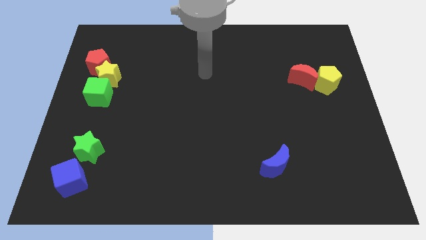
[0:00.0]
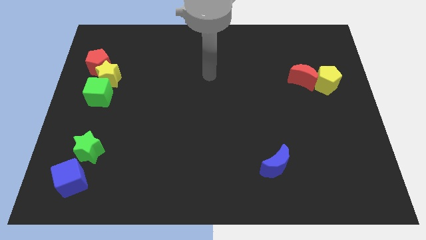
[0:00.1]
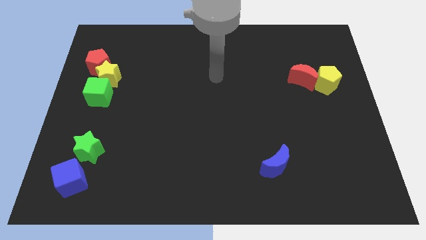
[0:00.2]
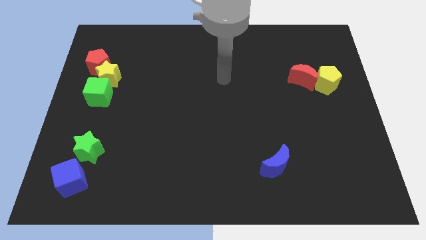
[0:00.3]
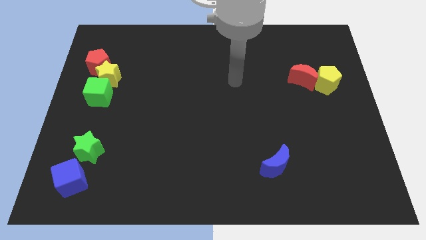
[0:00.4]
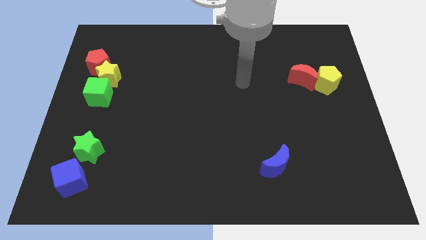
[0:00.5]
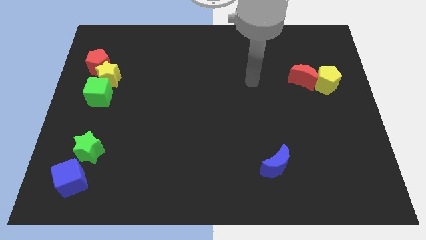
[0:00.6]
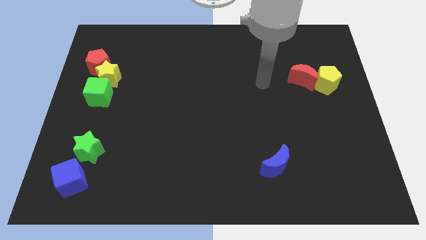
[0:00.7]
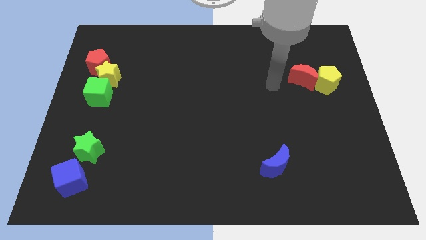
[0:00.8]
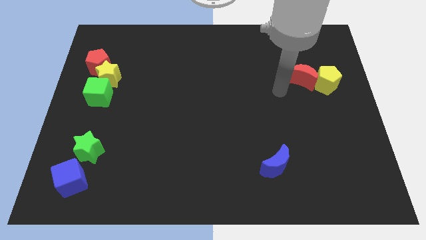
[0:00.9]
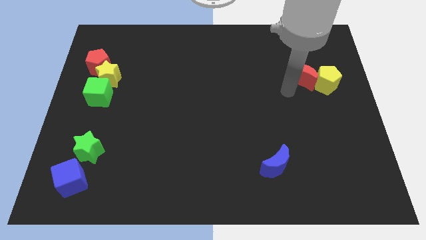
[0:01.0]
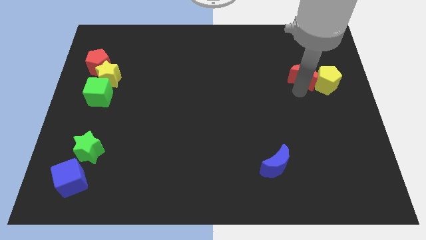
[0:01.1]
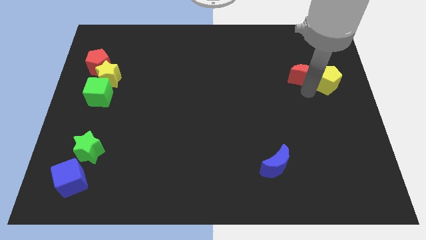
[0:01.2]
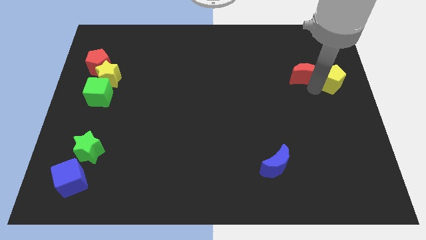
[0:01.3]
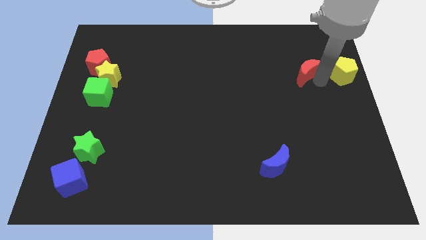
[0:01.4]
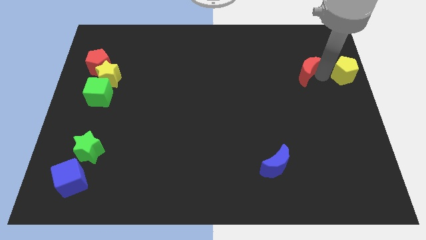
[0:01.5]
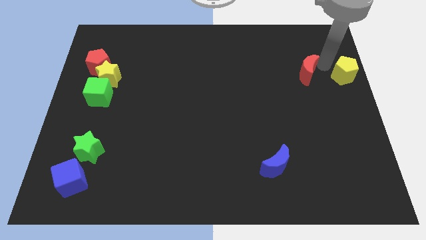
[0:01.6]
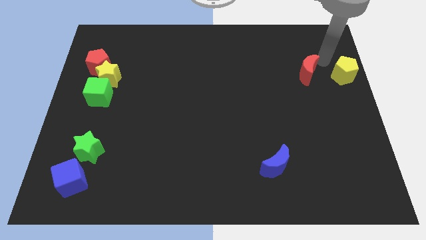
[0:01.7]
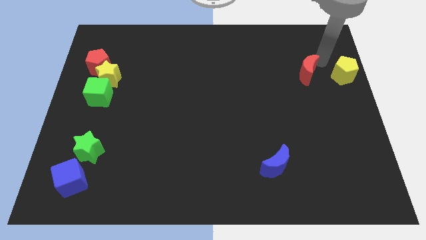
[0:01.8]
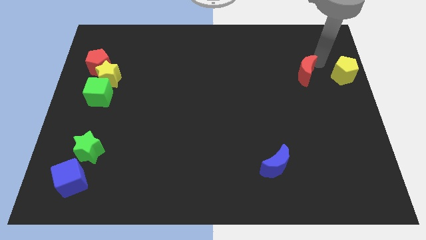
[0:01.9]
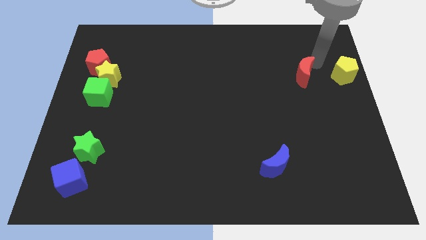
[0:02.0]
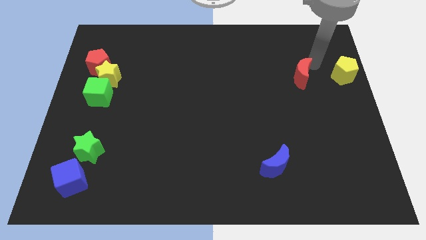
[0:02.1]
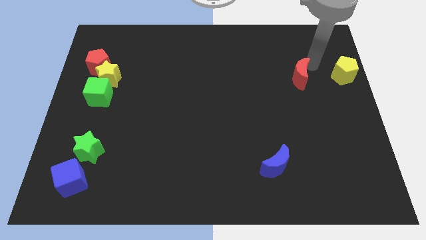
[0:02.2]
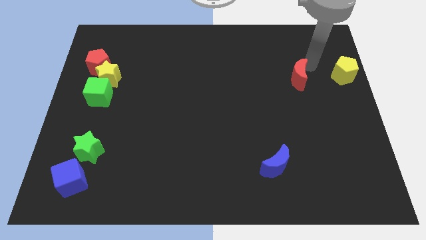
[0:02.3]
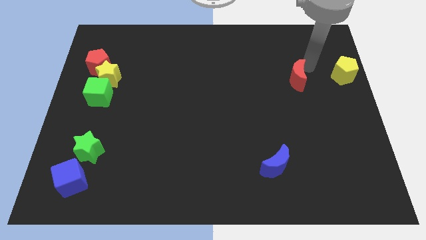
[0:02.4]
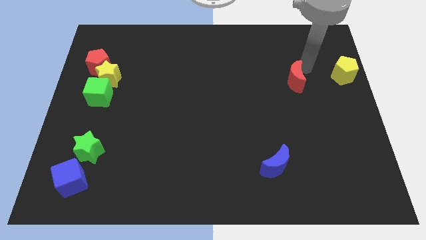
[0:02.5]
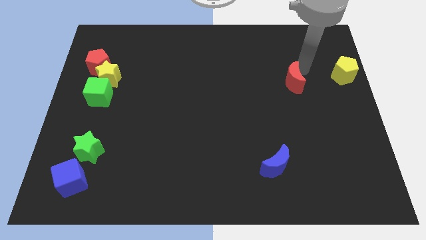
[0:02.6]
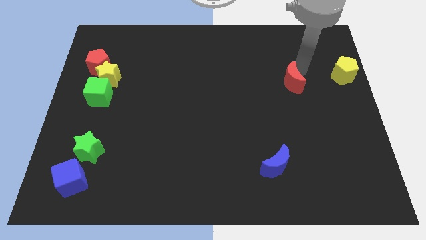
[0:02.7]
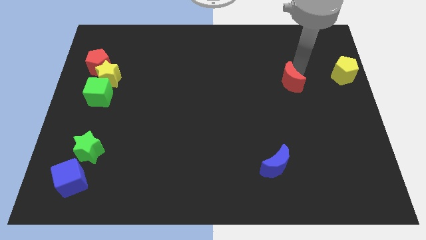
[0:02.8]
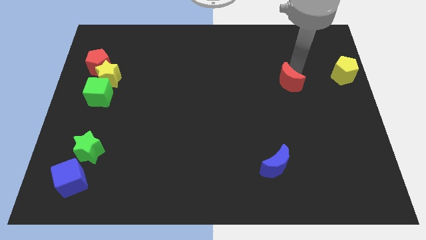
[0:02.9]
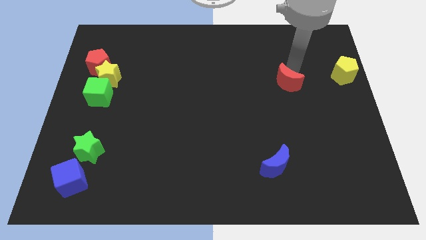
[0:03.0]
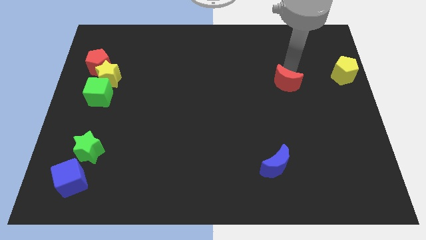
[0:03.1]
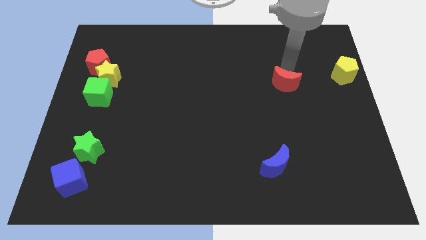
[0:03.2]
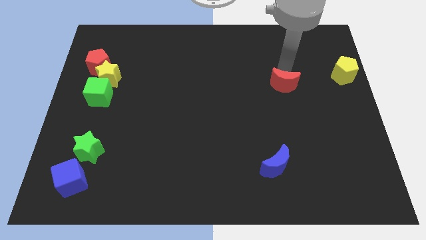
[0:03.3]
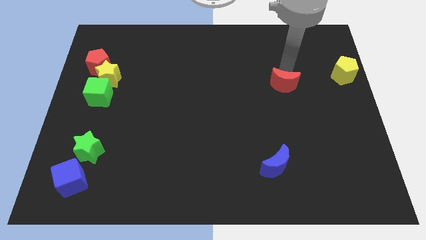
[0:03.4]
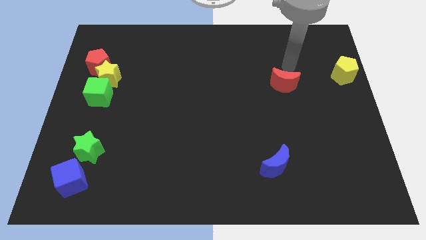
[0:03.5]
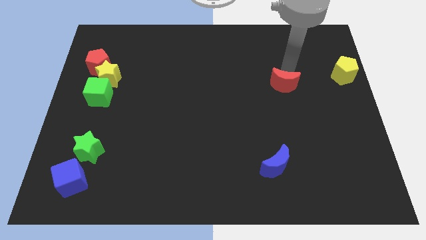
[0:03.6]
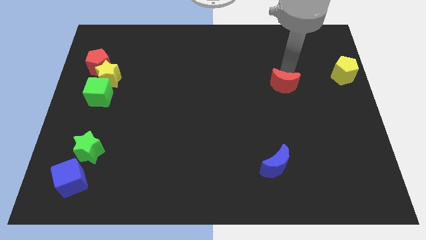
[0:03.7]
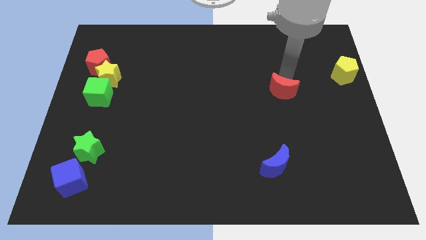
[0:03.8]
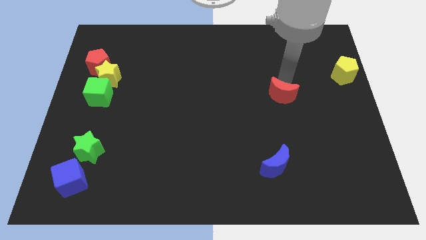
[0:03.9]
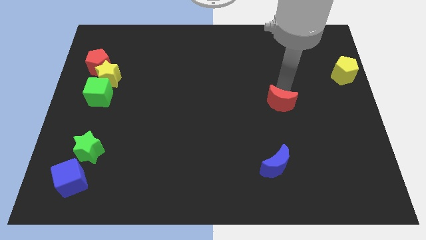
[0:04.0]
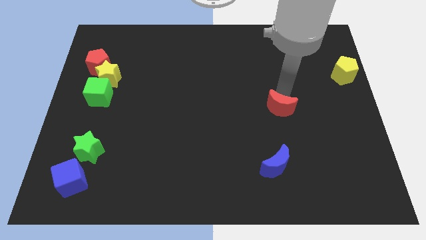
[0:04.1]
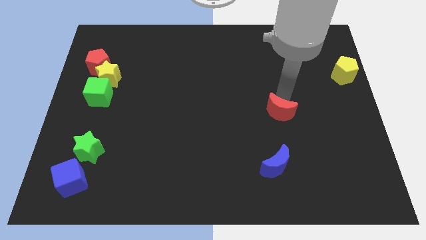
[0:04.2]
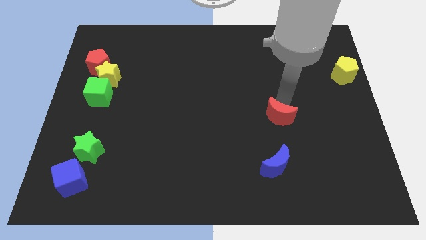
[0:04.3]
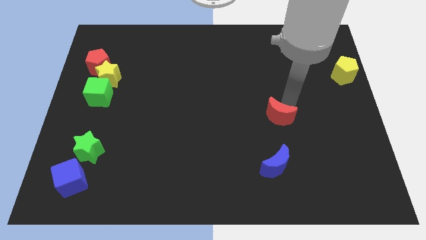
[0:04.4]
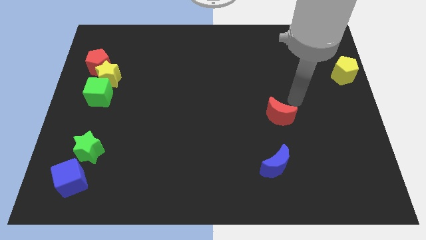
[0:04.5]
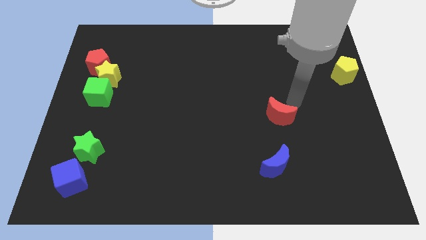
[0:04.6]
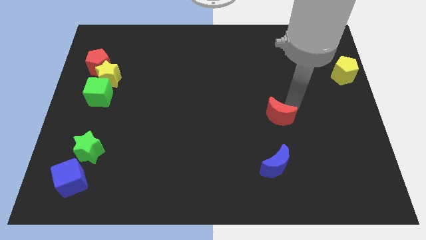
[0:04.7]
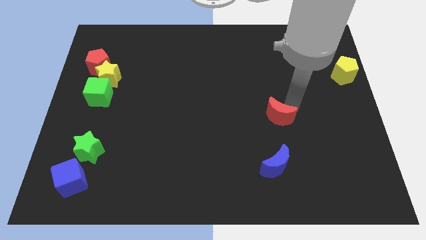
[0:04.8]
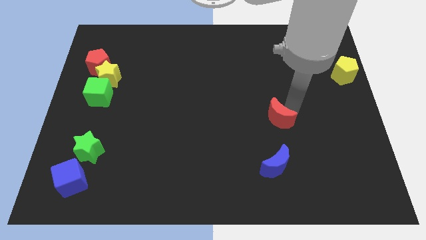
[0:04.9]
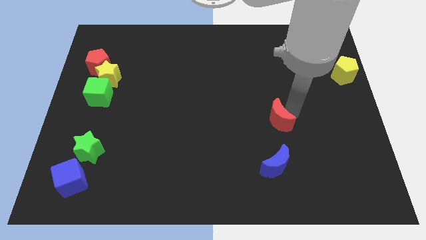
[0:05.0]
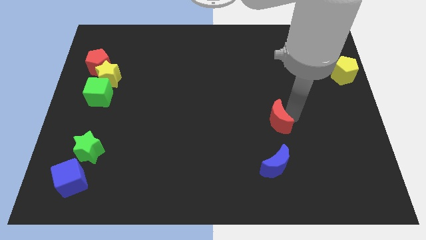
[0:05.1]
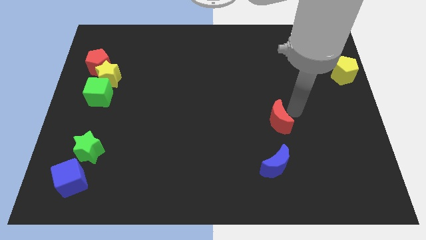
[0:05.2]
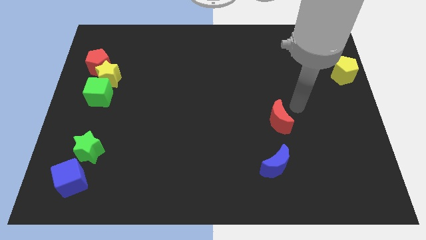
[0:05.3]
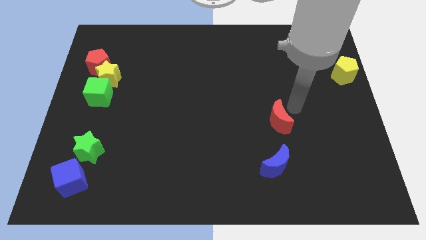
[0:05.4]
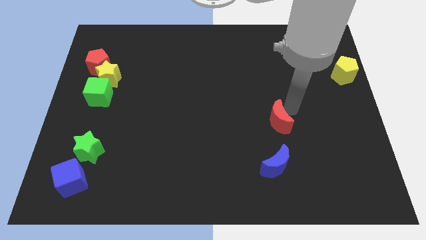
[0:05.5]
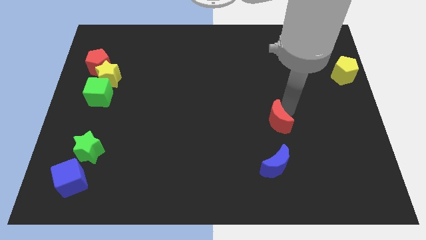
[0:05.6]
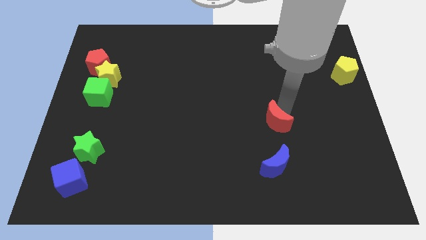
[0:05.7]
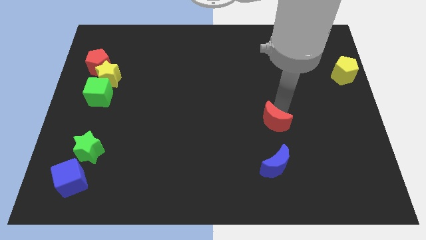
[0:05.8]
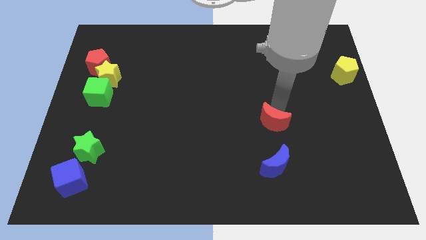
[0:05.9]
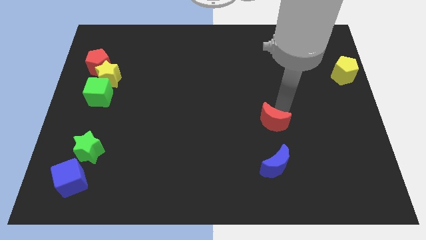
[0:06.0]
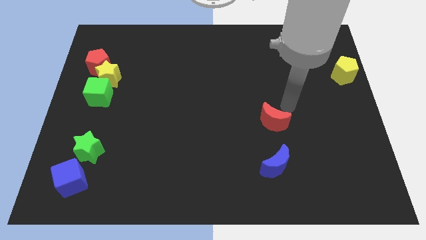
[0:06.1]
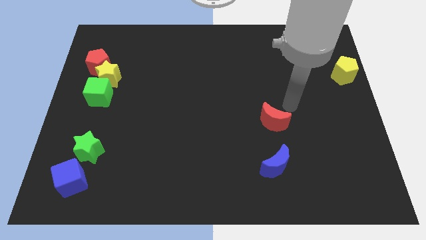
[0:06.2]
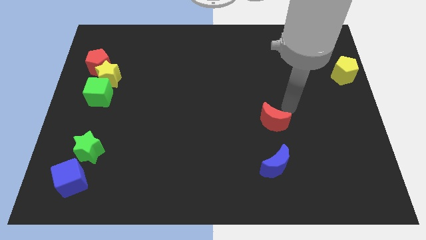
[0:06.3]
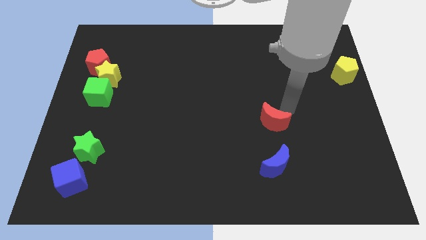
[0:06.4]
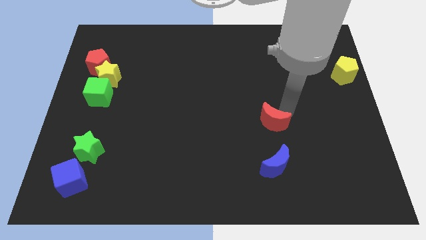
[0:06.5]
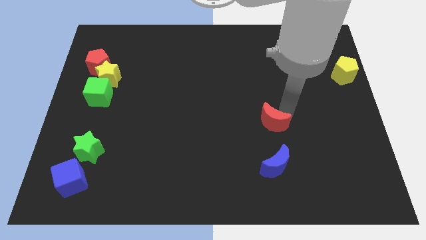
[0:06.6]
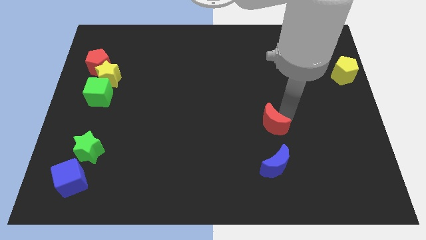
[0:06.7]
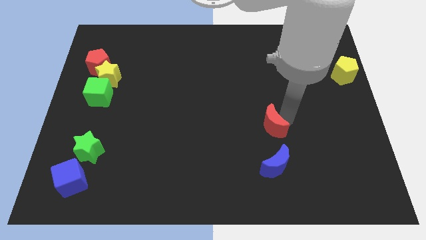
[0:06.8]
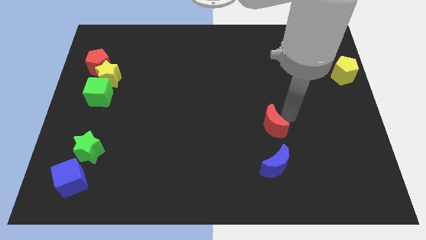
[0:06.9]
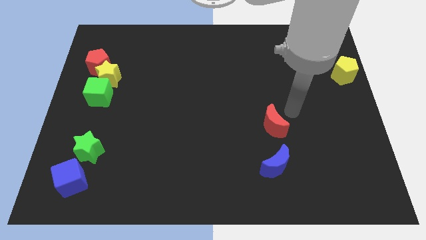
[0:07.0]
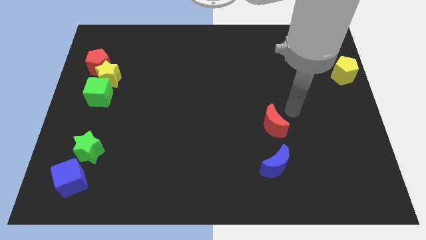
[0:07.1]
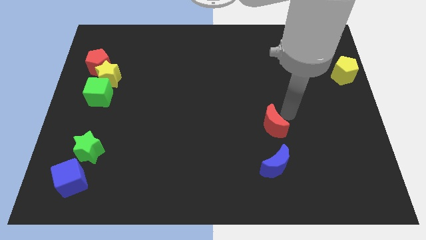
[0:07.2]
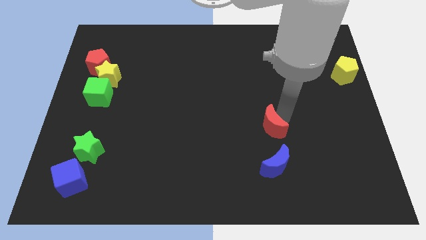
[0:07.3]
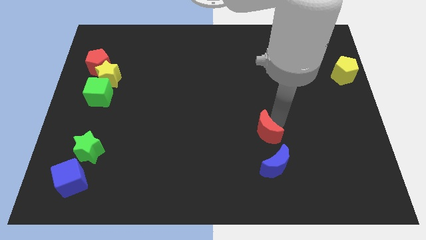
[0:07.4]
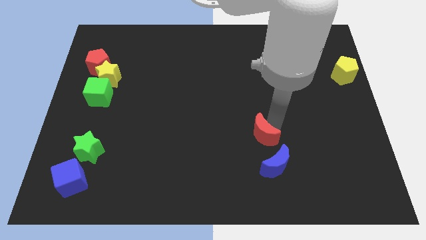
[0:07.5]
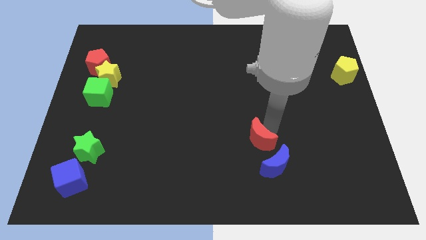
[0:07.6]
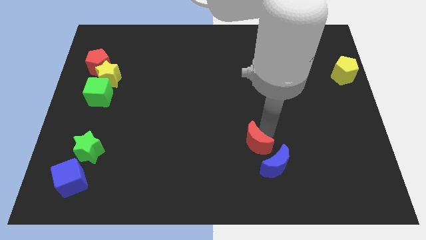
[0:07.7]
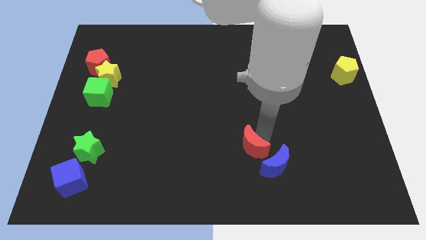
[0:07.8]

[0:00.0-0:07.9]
slide the red moon left of the blue moon

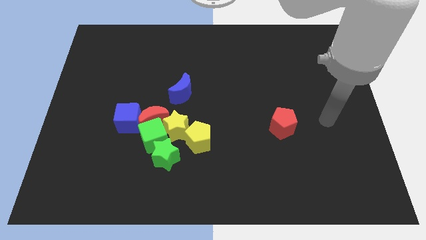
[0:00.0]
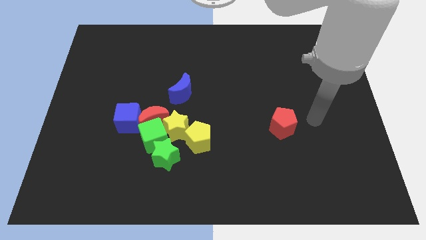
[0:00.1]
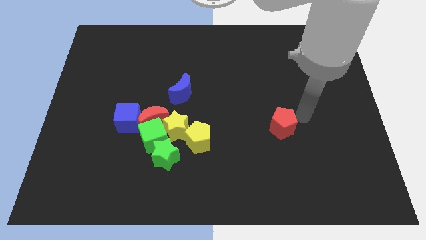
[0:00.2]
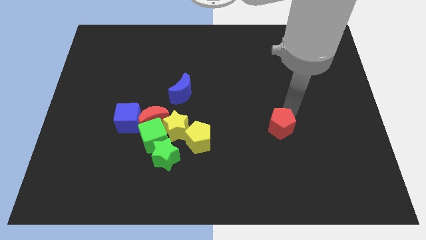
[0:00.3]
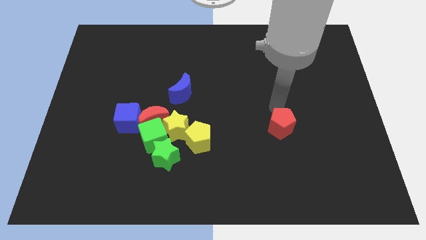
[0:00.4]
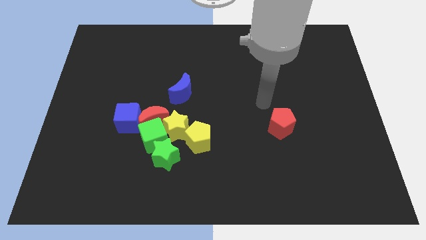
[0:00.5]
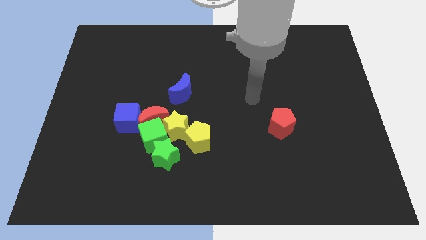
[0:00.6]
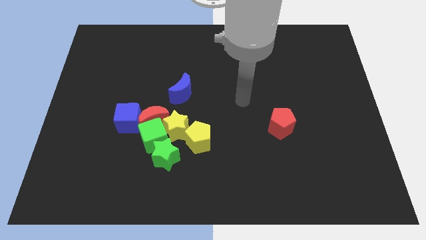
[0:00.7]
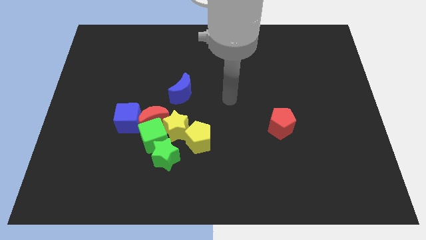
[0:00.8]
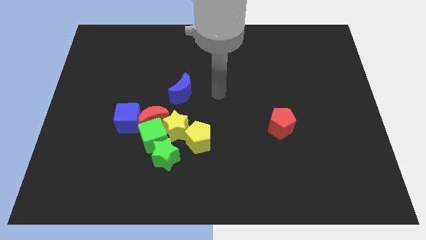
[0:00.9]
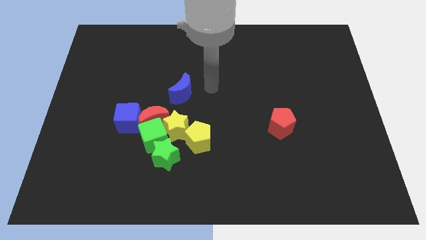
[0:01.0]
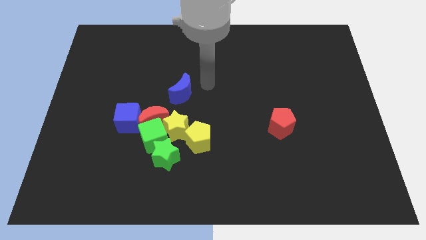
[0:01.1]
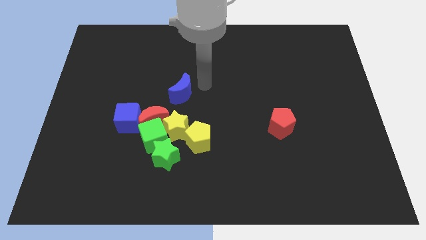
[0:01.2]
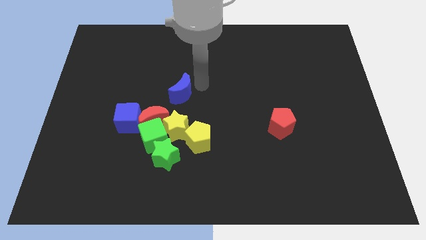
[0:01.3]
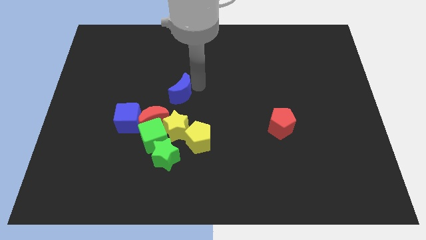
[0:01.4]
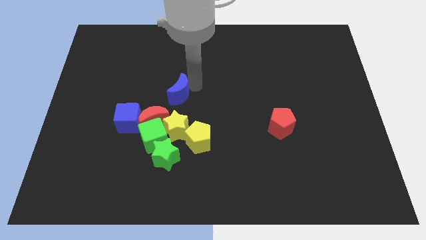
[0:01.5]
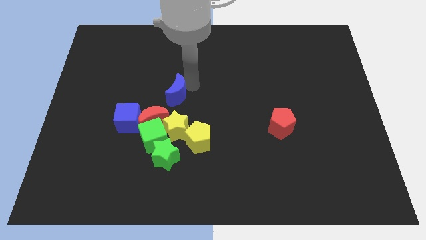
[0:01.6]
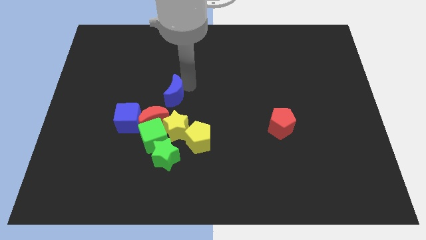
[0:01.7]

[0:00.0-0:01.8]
put the blue moon to the top right of the blue cube
